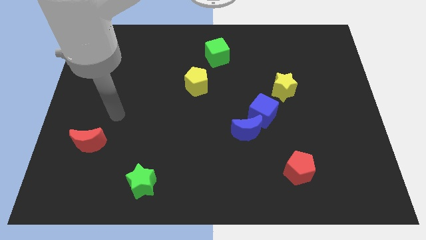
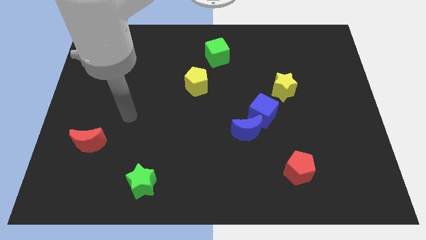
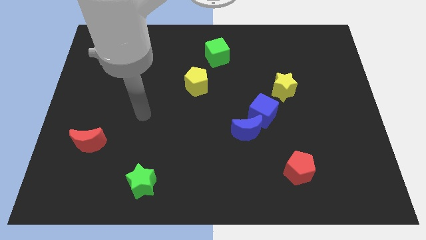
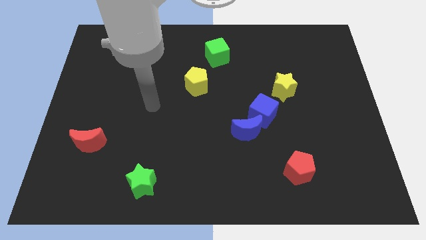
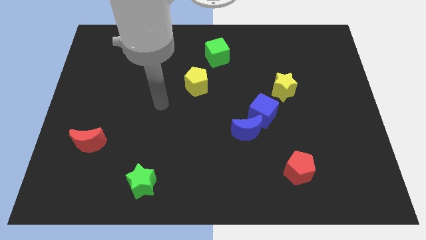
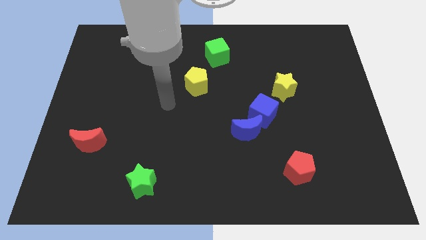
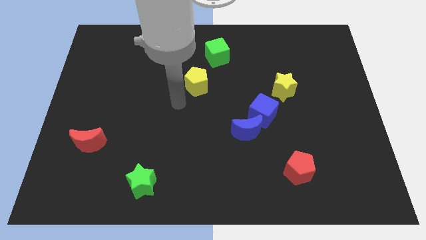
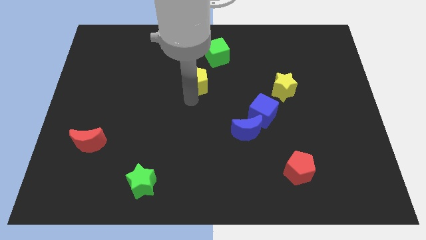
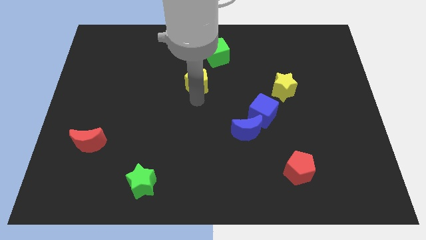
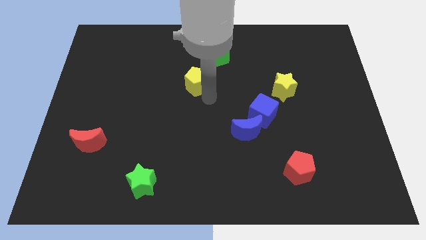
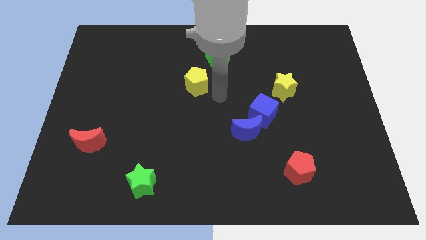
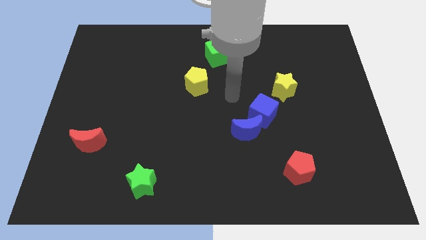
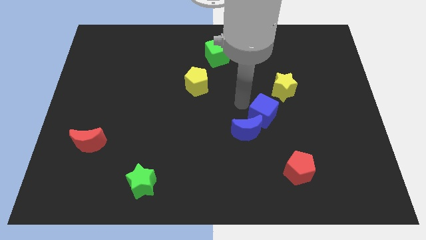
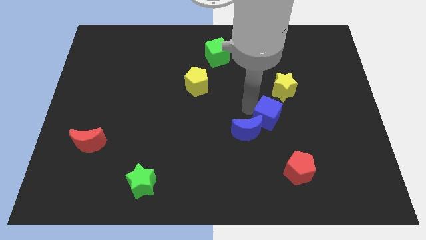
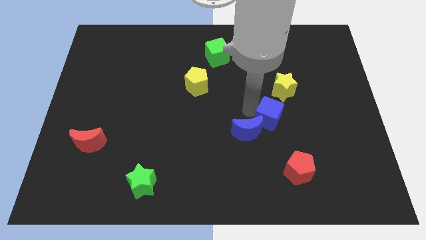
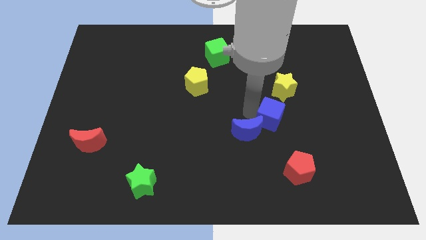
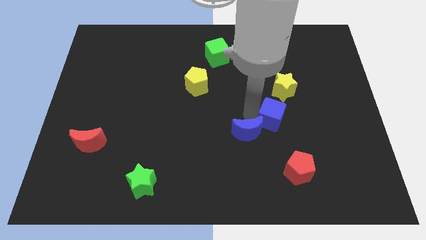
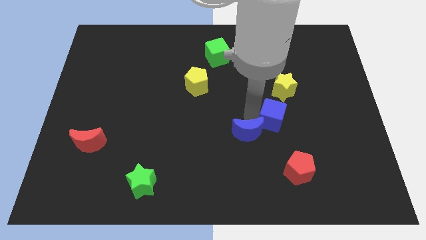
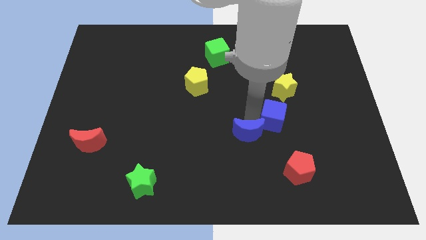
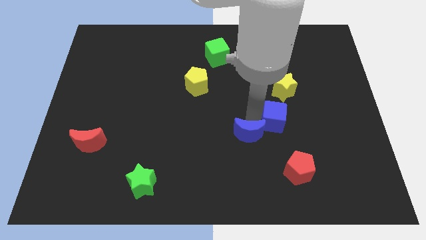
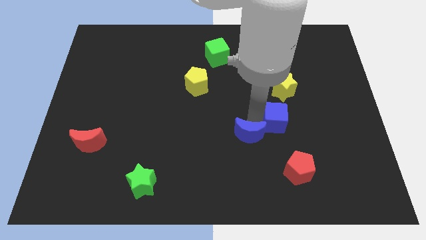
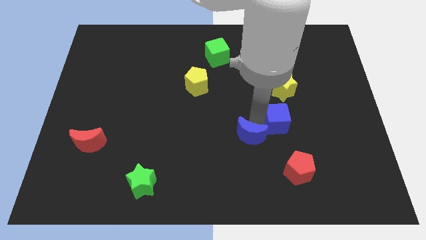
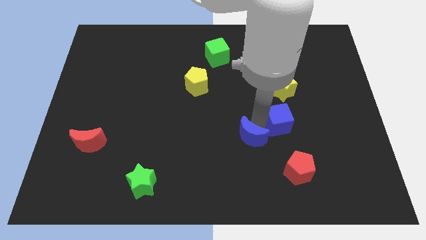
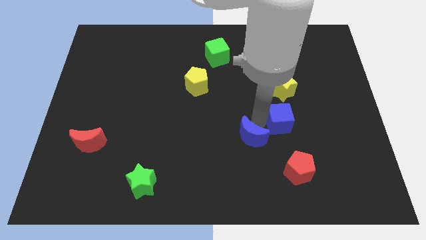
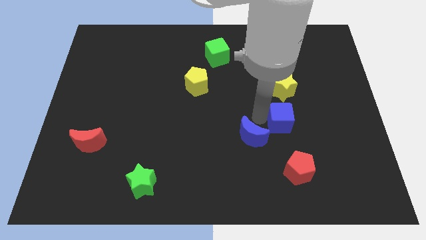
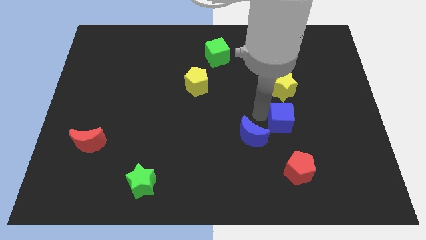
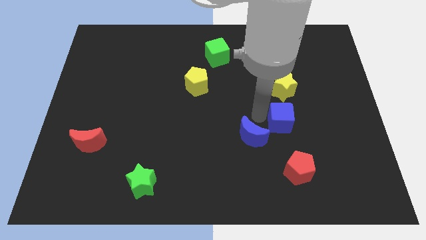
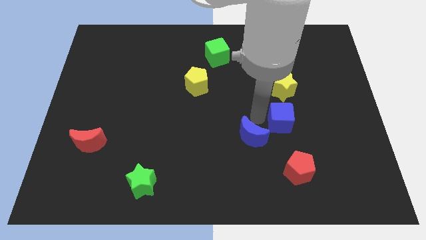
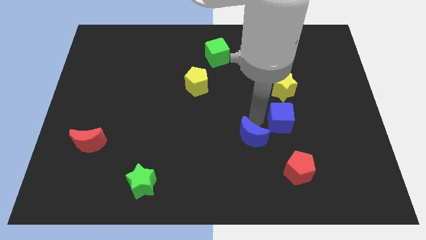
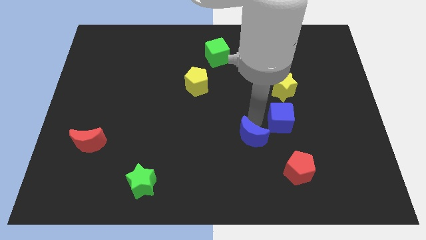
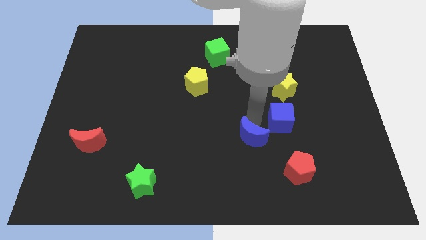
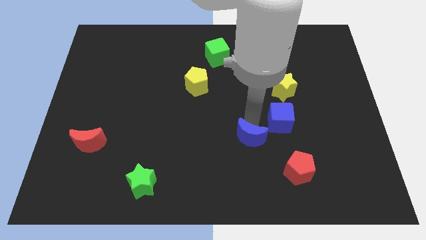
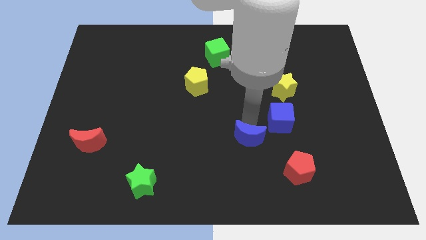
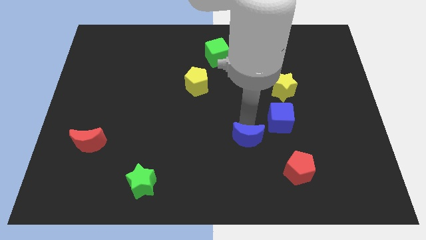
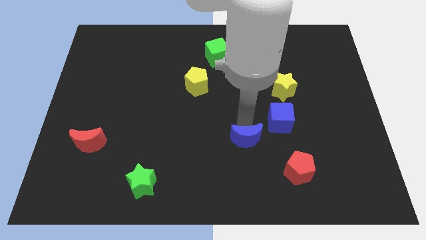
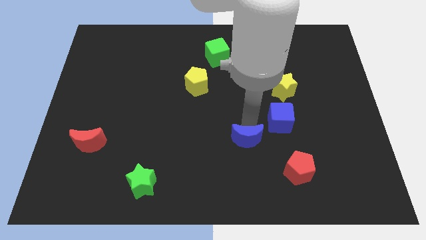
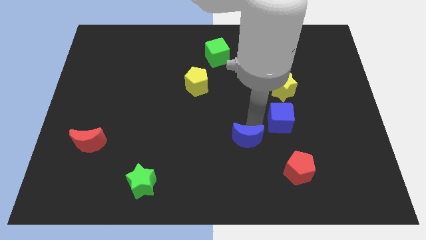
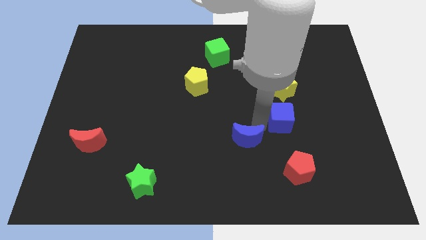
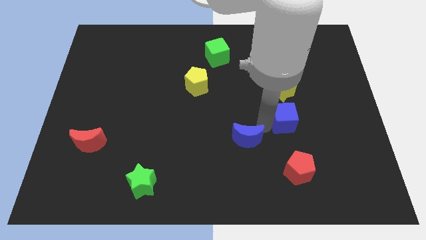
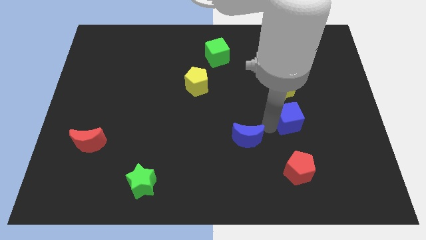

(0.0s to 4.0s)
move the blue moon away from the blue cube

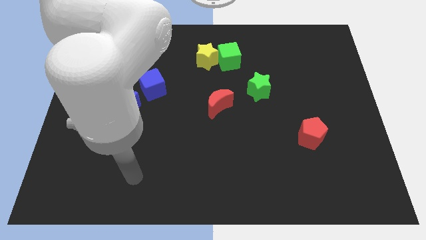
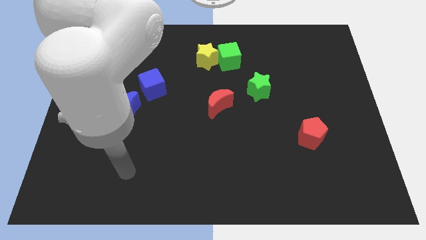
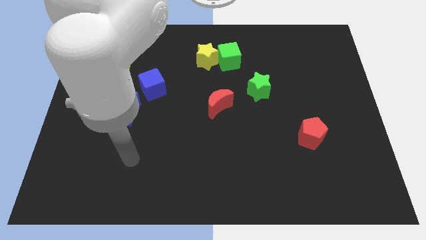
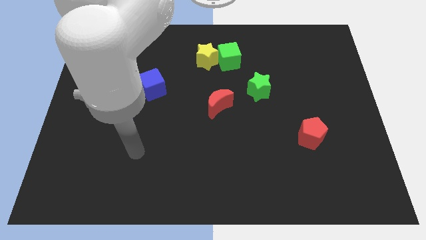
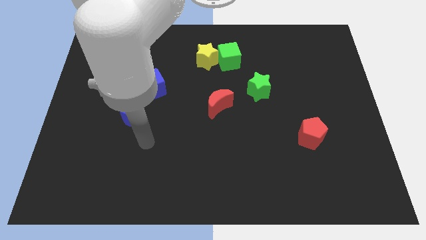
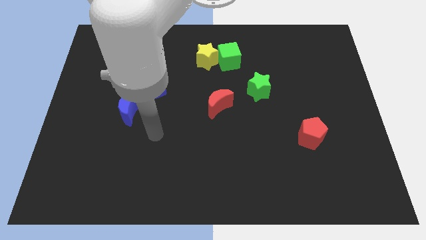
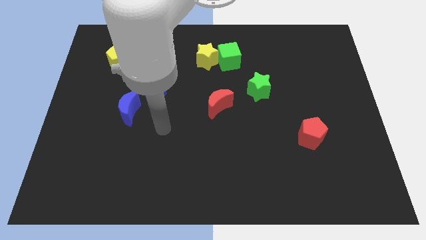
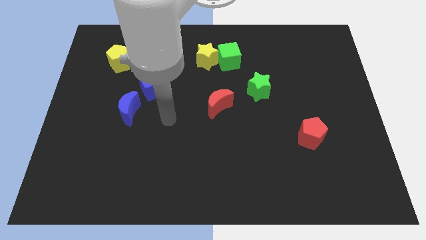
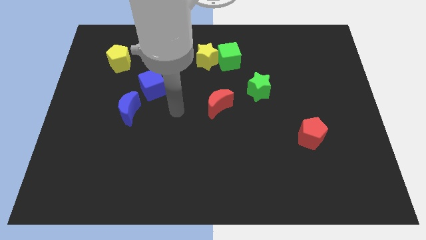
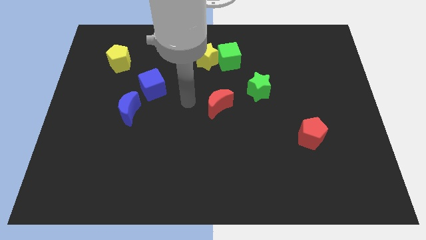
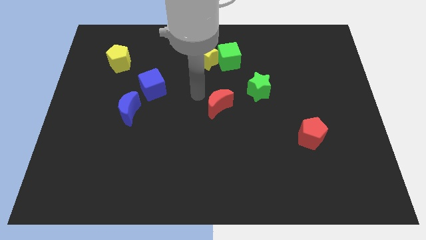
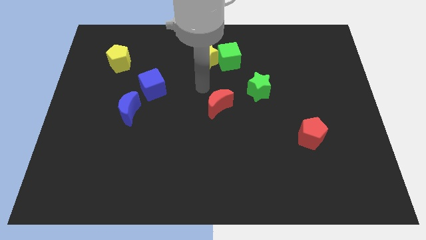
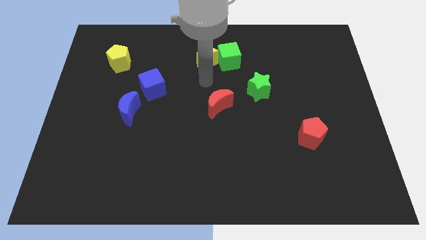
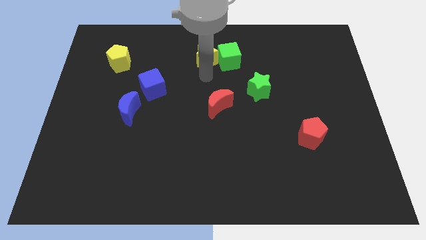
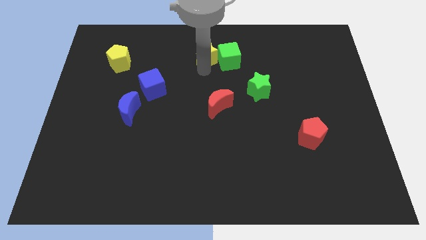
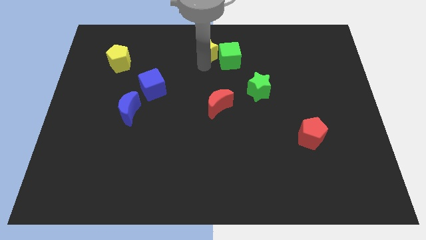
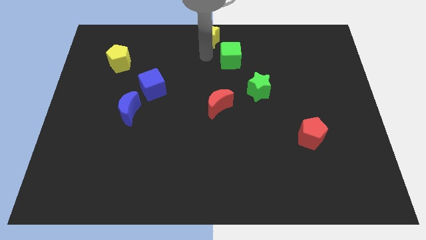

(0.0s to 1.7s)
pull the green cube apart from the yellow star

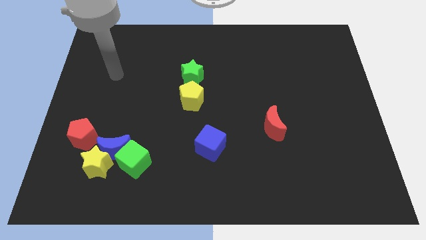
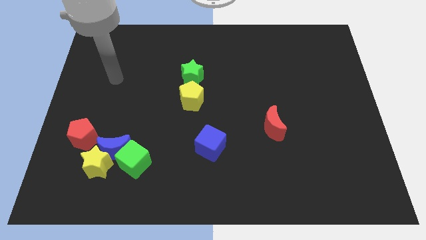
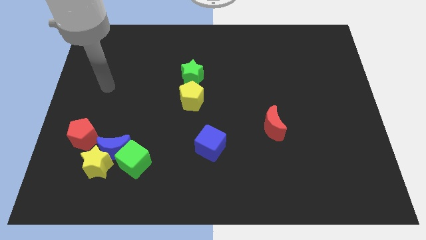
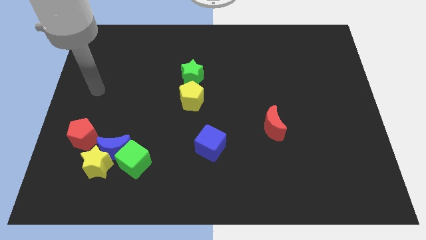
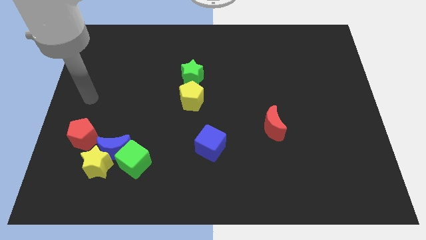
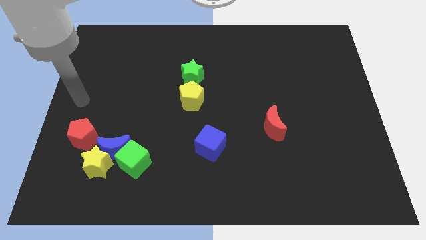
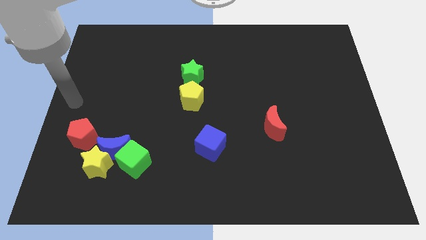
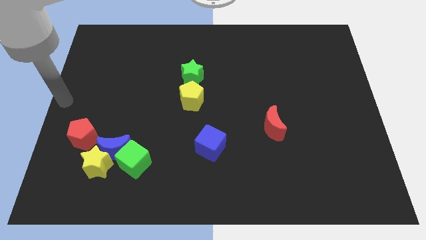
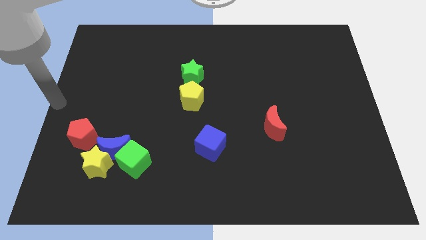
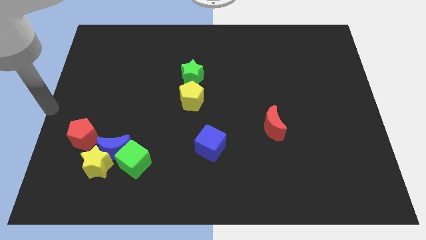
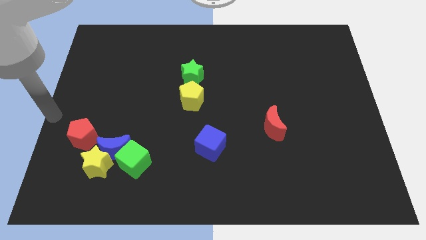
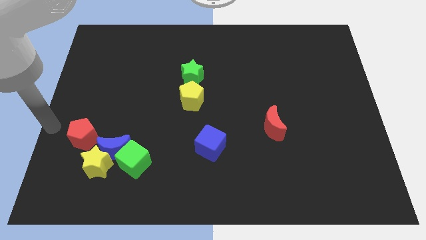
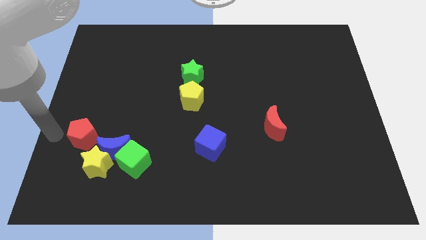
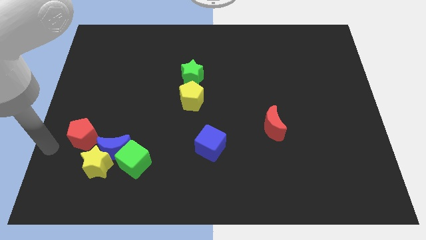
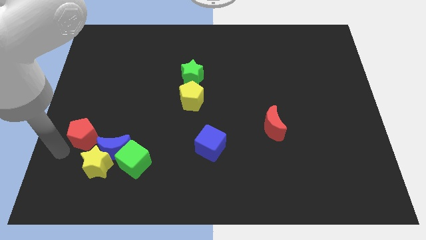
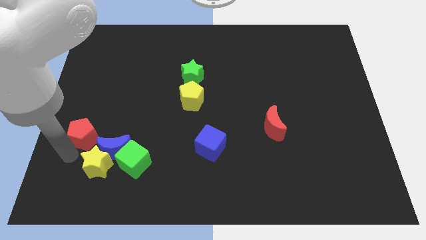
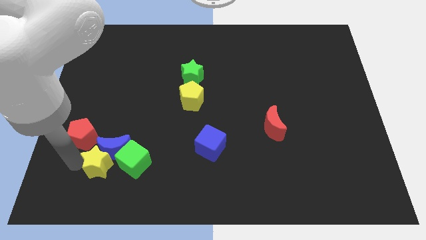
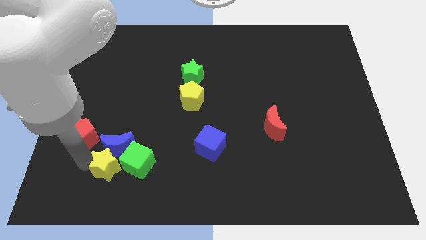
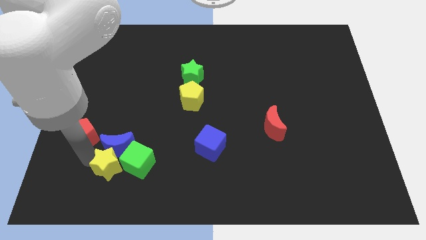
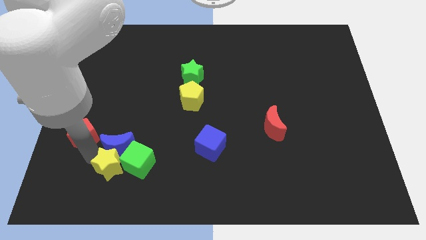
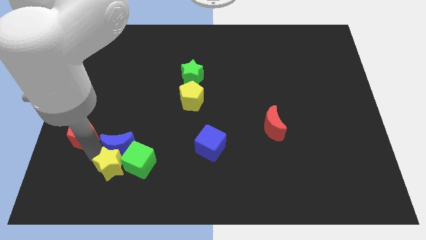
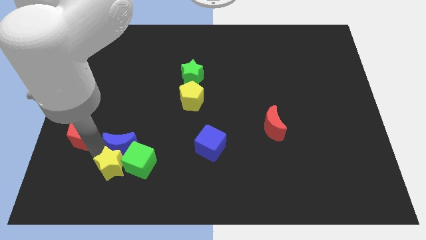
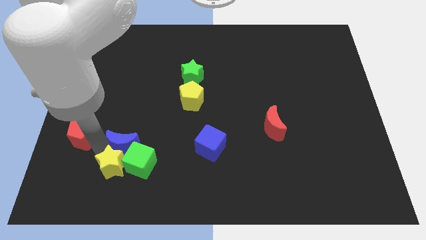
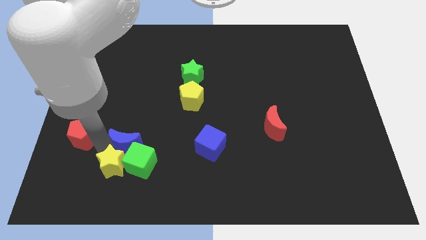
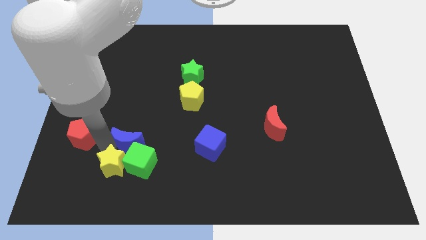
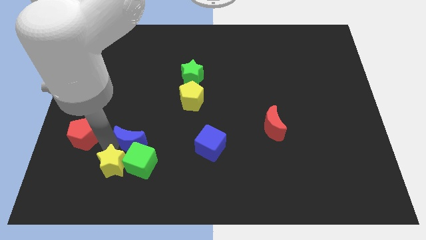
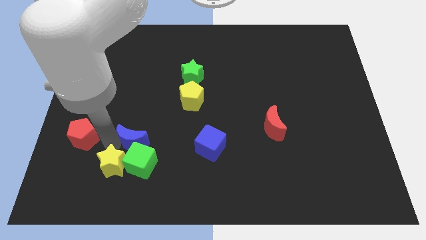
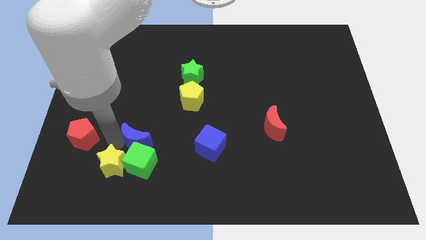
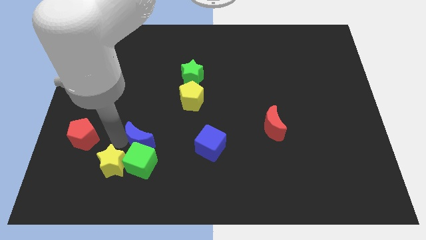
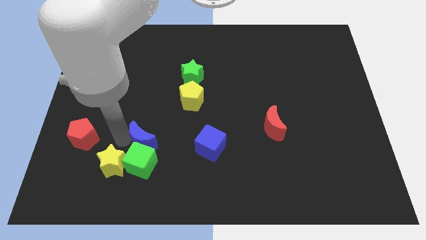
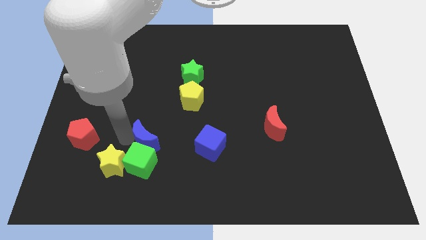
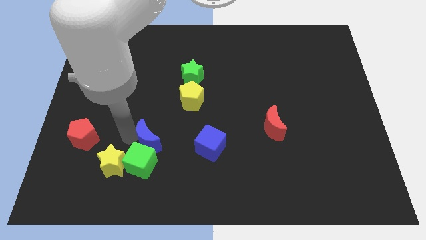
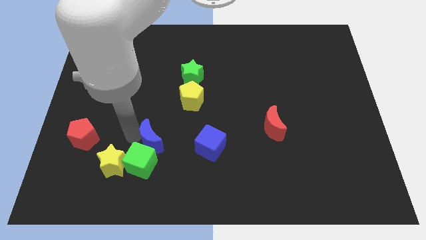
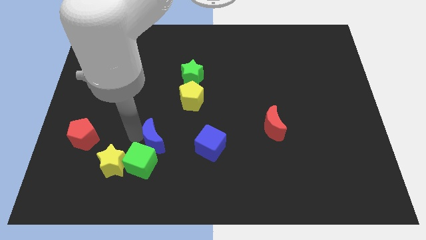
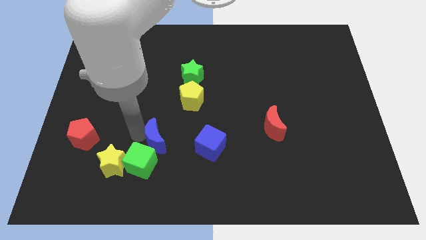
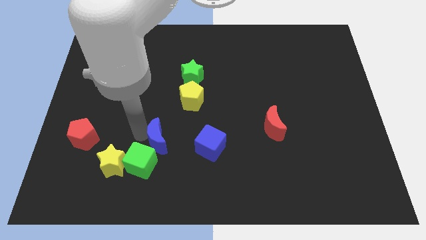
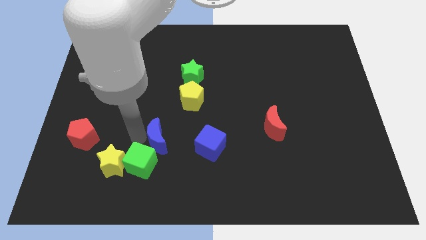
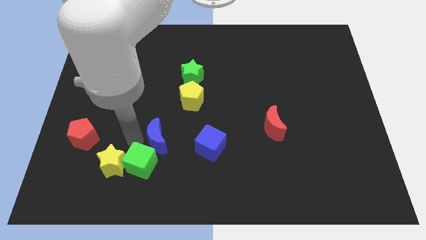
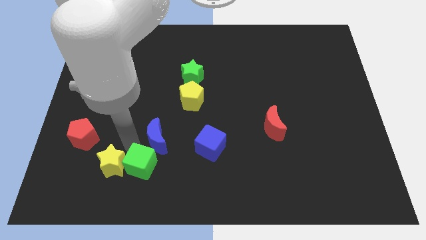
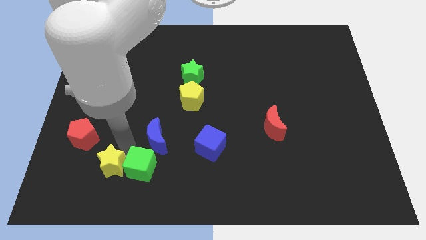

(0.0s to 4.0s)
move the blue moon away from the yellow star, green cube, and red pentagon
